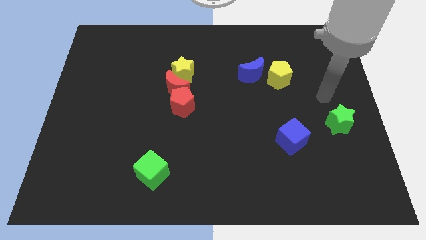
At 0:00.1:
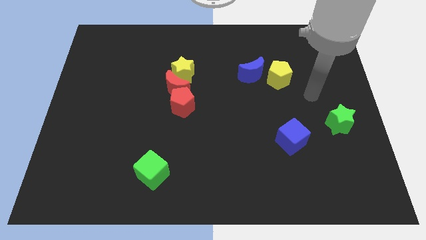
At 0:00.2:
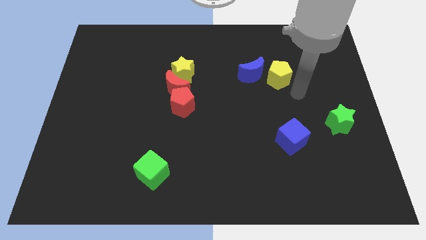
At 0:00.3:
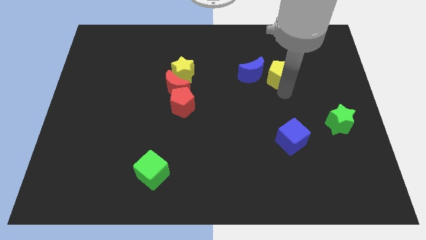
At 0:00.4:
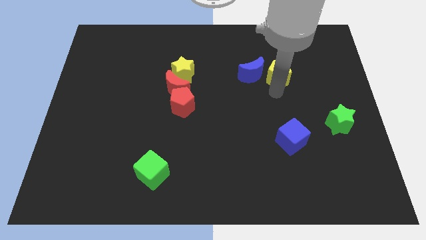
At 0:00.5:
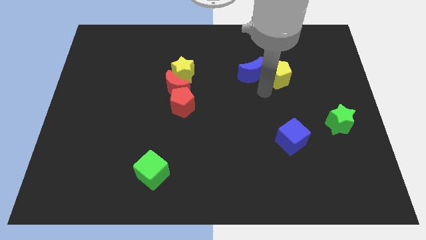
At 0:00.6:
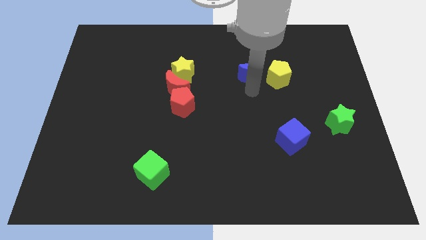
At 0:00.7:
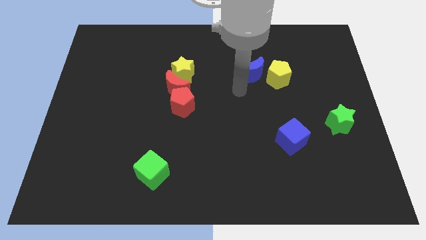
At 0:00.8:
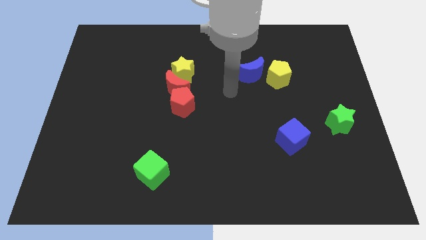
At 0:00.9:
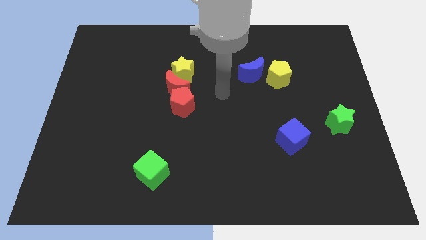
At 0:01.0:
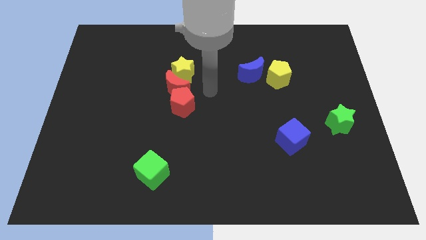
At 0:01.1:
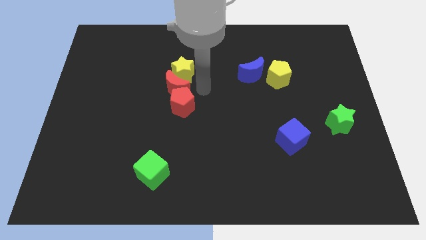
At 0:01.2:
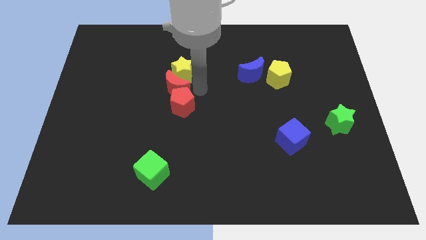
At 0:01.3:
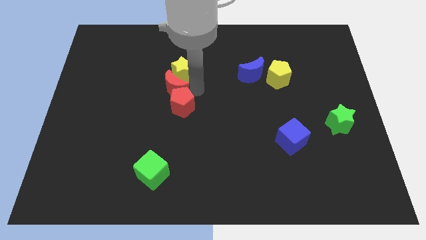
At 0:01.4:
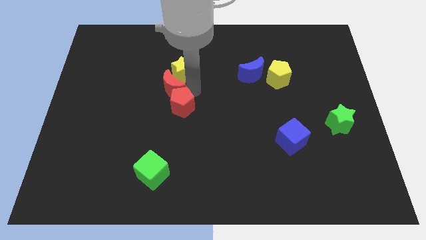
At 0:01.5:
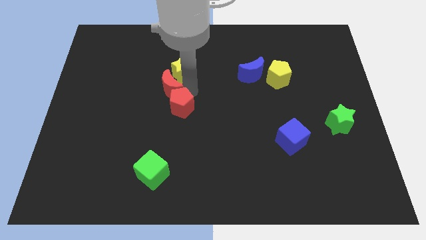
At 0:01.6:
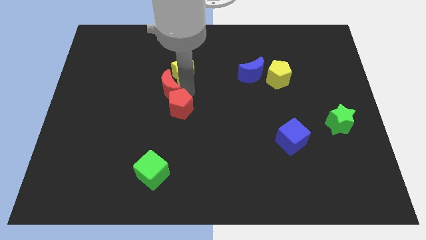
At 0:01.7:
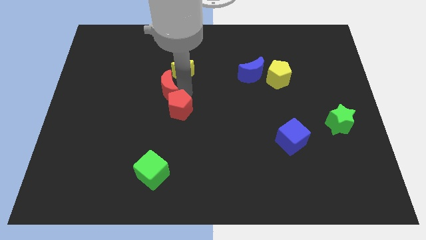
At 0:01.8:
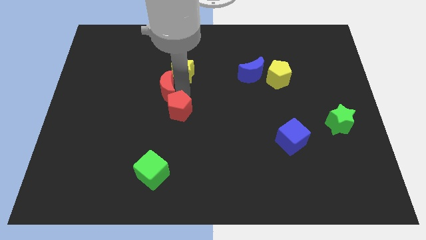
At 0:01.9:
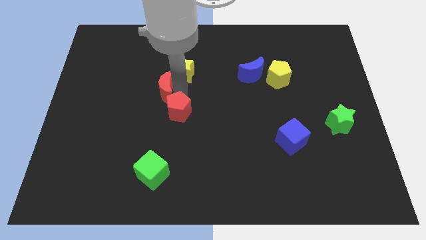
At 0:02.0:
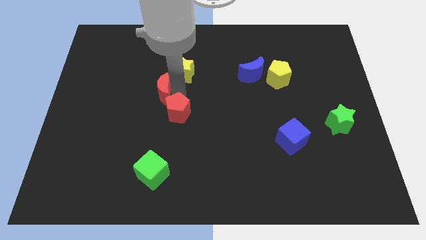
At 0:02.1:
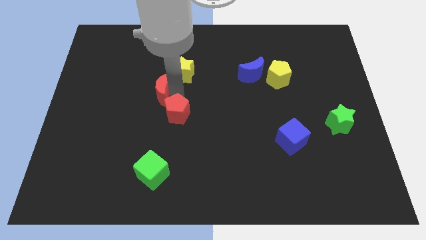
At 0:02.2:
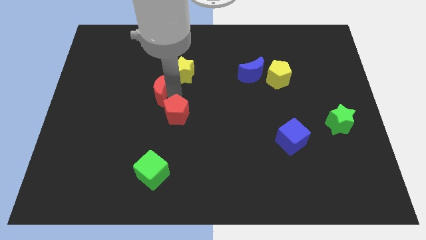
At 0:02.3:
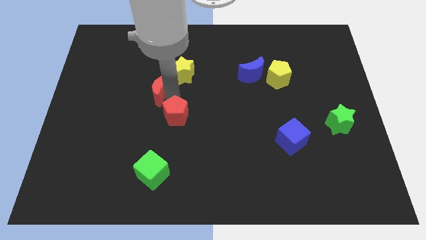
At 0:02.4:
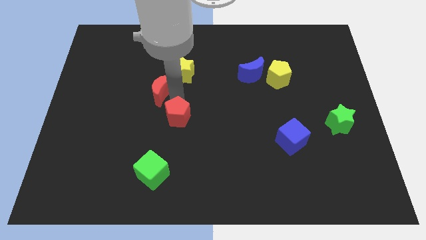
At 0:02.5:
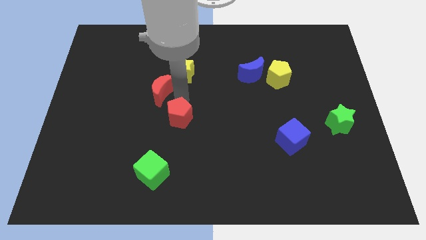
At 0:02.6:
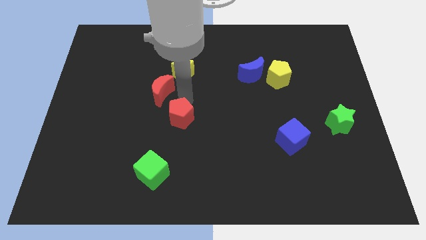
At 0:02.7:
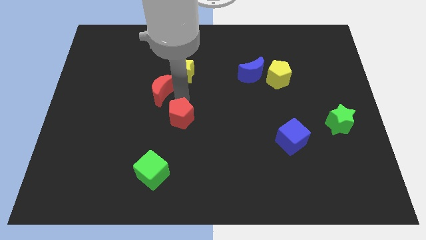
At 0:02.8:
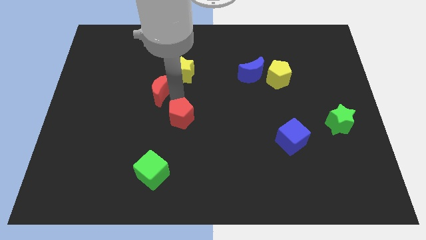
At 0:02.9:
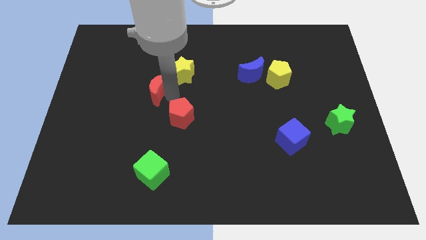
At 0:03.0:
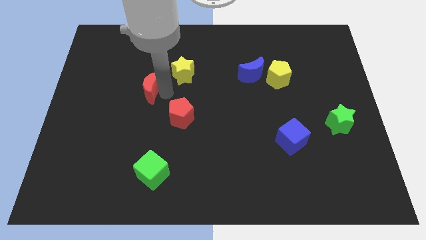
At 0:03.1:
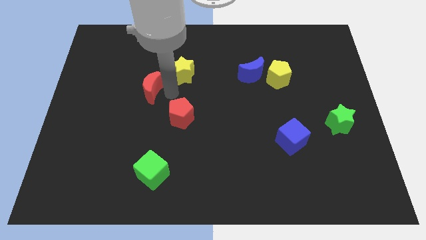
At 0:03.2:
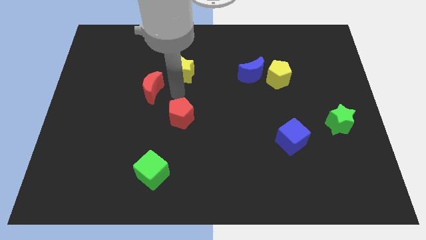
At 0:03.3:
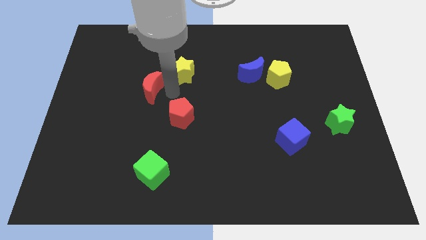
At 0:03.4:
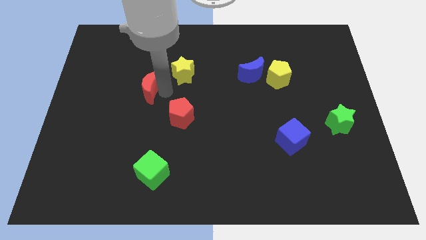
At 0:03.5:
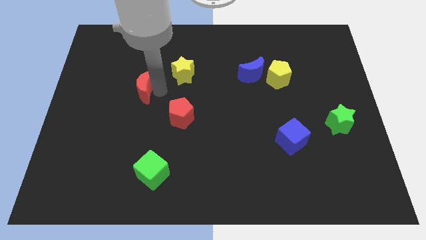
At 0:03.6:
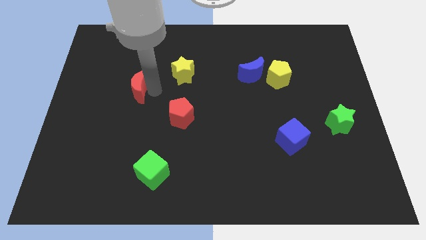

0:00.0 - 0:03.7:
pull the red moon apart from the yellow star and red pentagon

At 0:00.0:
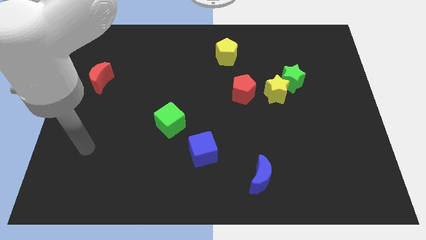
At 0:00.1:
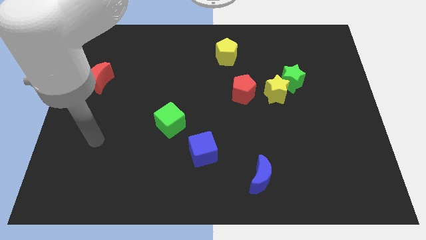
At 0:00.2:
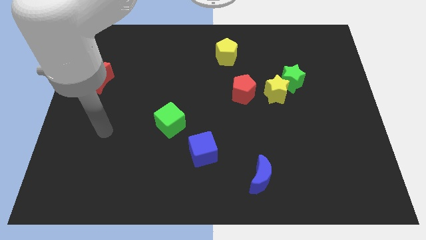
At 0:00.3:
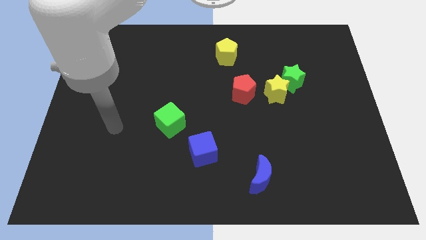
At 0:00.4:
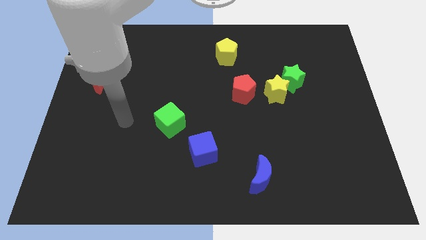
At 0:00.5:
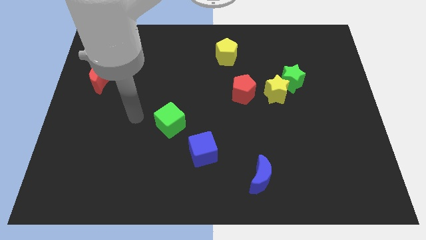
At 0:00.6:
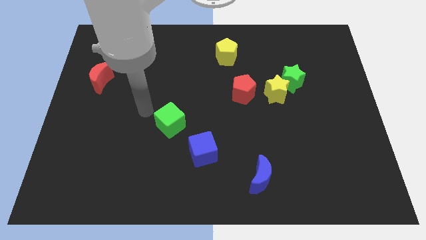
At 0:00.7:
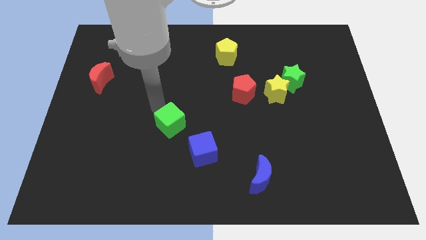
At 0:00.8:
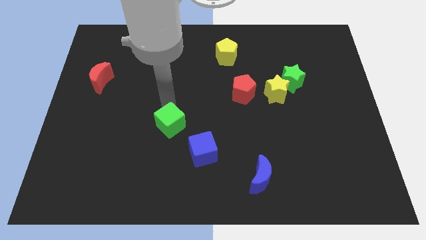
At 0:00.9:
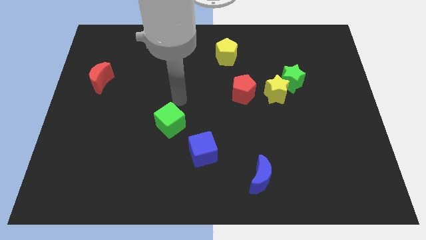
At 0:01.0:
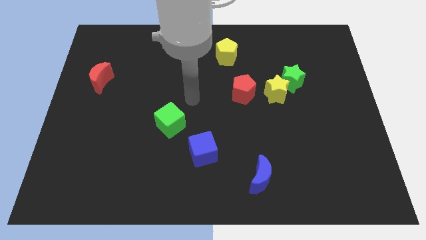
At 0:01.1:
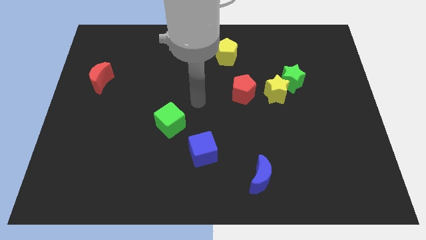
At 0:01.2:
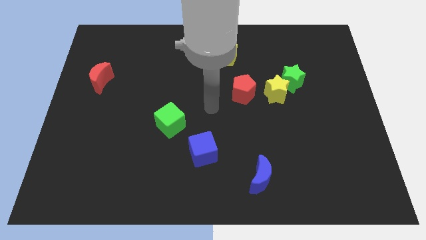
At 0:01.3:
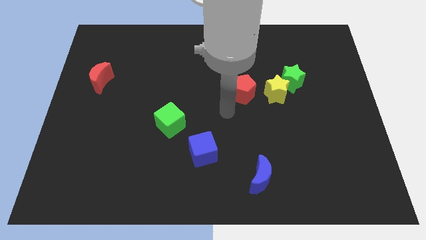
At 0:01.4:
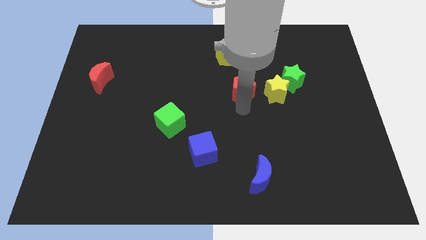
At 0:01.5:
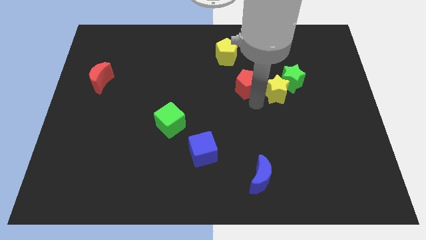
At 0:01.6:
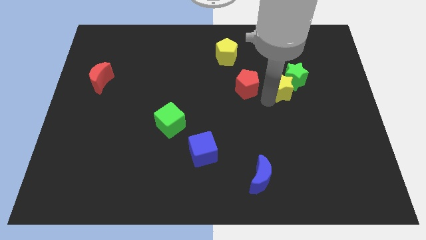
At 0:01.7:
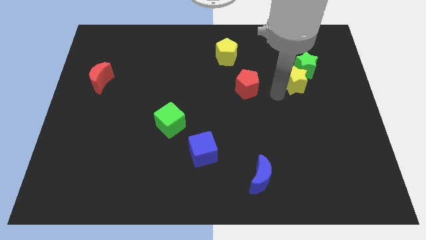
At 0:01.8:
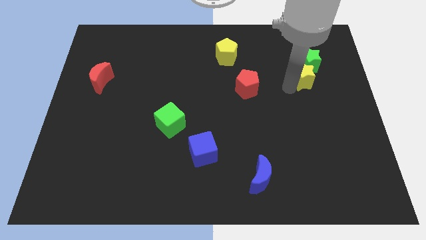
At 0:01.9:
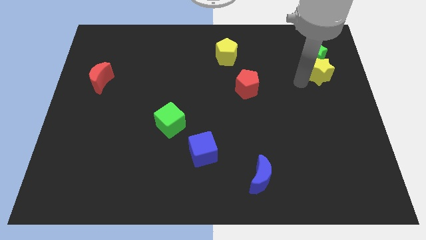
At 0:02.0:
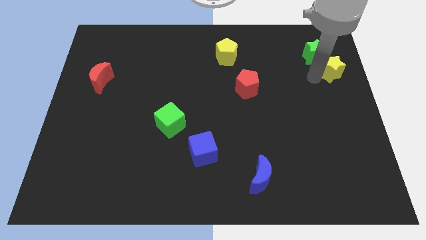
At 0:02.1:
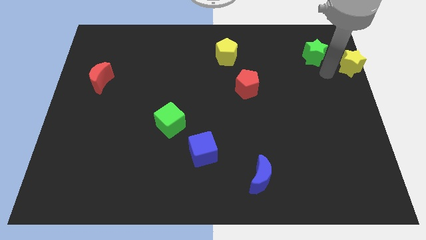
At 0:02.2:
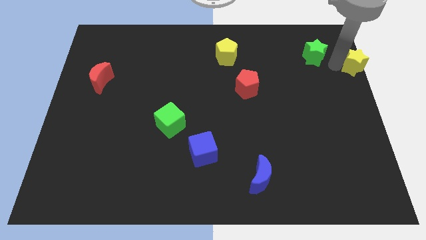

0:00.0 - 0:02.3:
separate the green star from the yellow star

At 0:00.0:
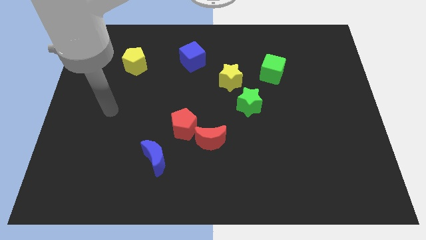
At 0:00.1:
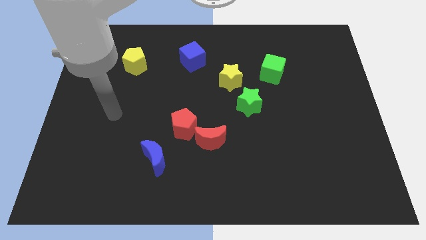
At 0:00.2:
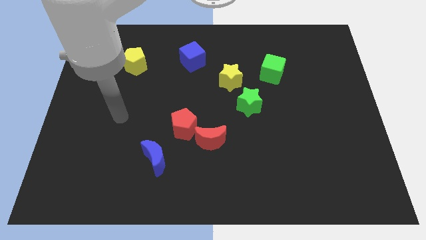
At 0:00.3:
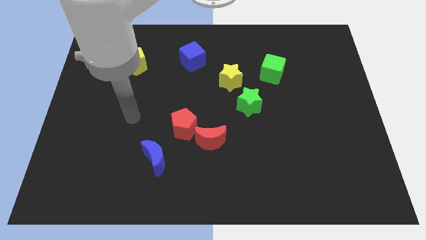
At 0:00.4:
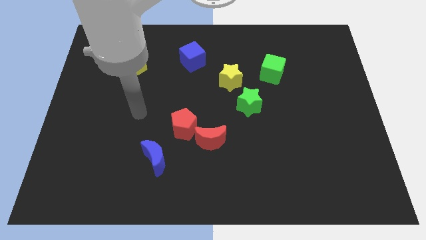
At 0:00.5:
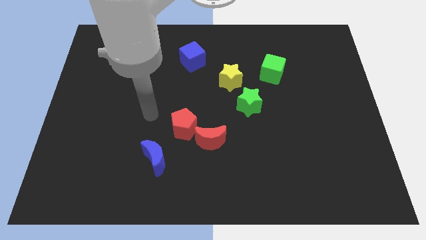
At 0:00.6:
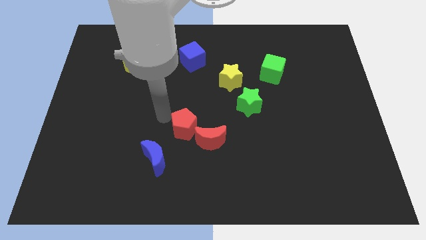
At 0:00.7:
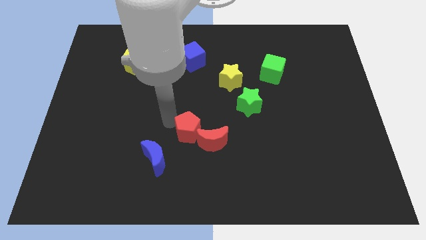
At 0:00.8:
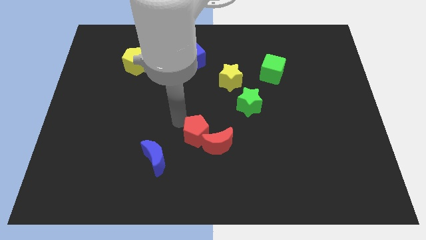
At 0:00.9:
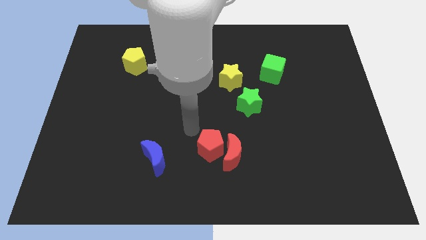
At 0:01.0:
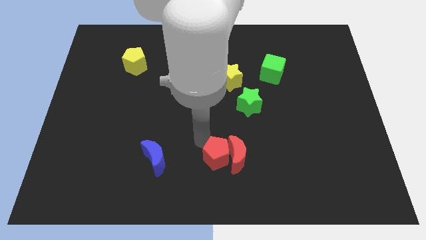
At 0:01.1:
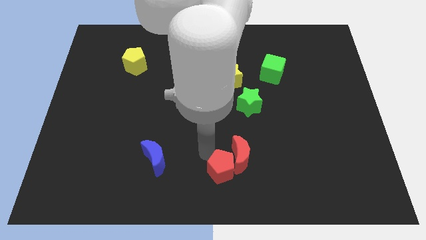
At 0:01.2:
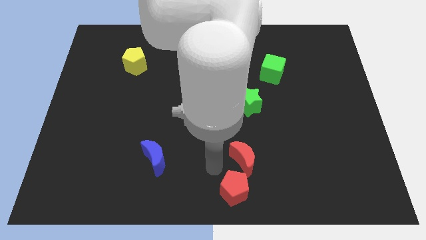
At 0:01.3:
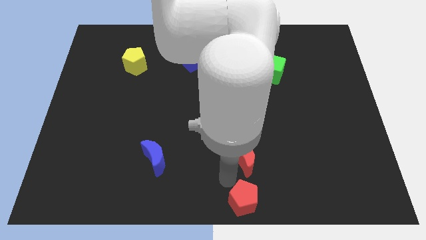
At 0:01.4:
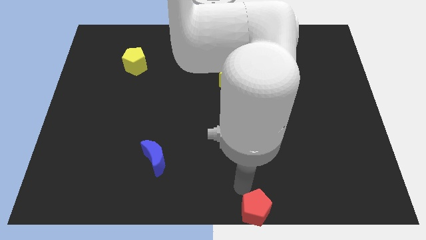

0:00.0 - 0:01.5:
move the red moon away from the red pentagon

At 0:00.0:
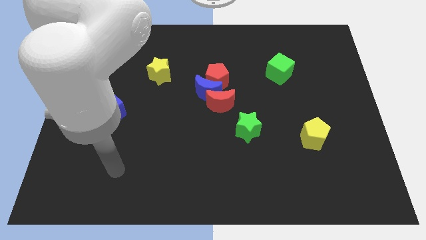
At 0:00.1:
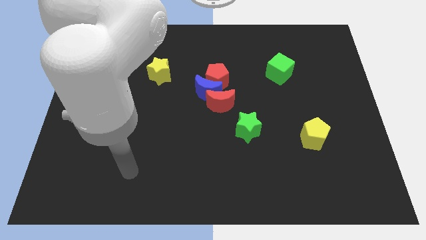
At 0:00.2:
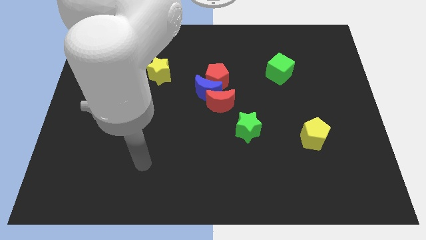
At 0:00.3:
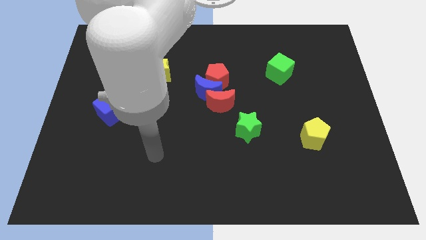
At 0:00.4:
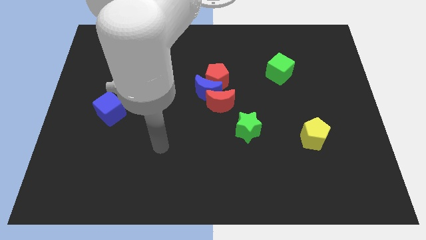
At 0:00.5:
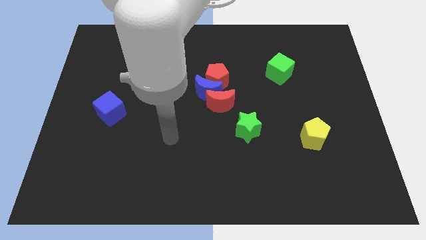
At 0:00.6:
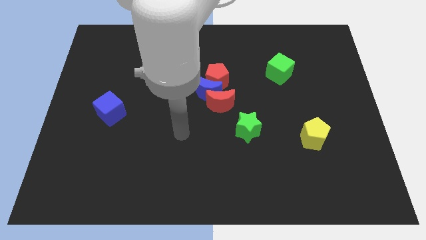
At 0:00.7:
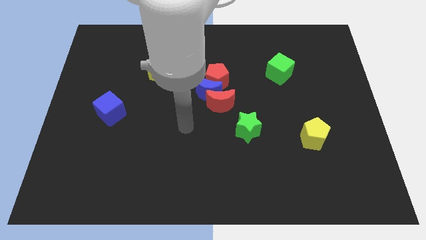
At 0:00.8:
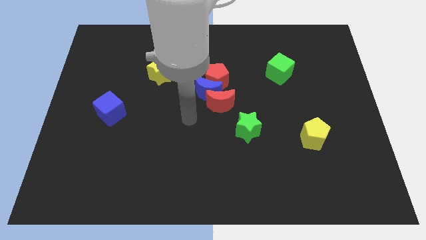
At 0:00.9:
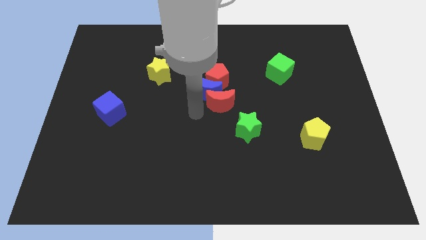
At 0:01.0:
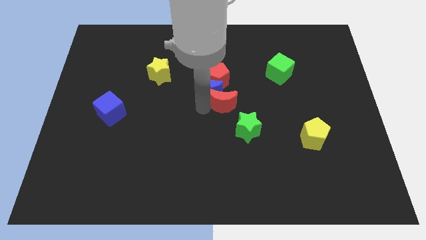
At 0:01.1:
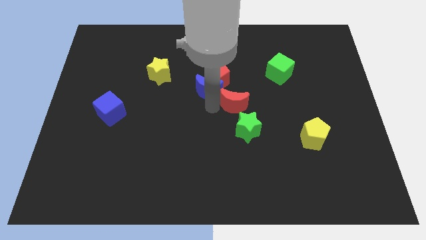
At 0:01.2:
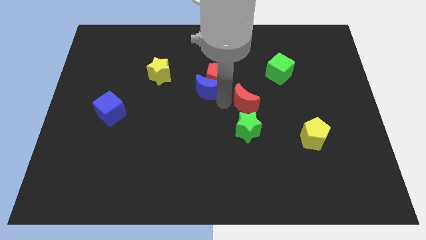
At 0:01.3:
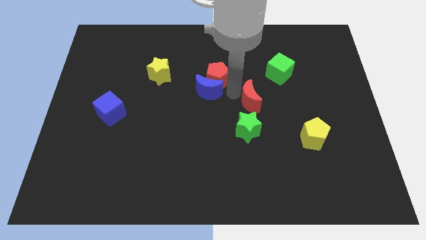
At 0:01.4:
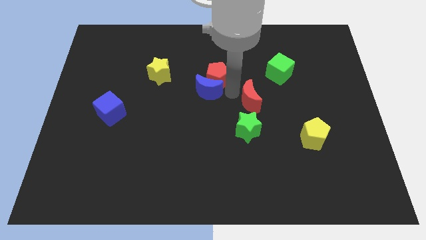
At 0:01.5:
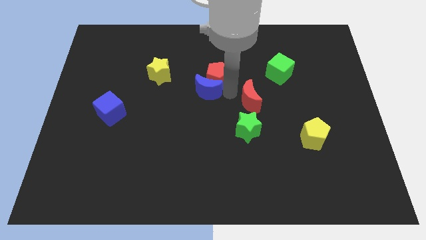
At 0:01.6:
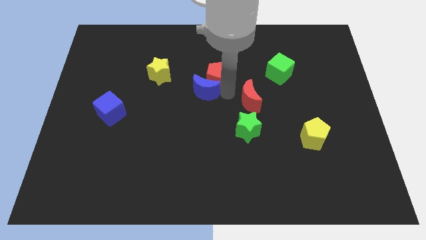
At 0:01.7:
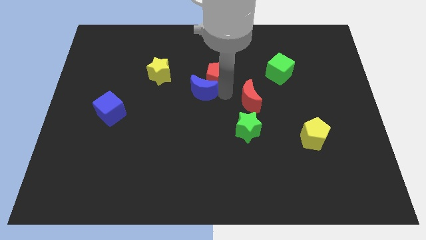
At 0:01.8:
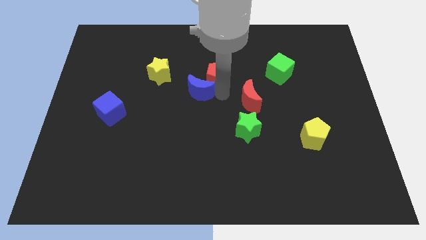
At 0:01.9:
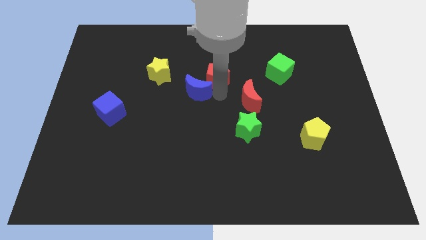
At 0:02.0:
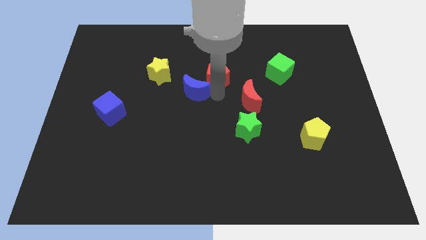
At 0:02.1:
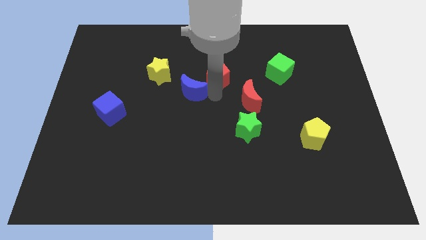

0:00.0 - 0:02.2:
separate the blue moon from the red pentagon and red moon
